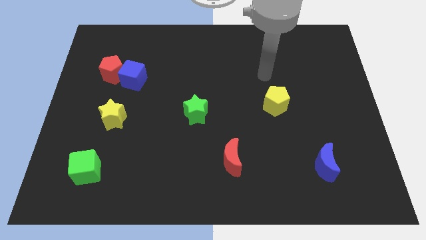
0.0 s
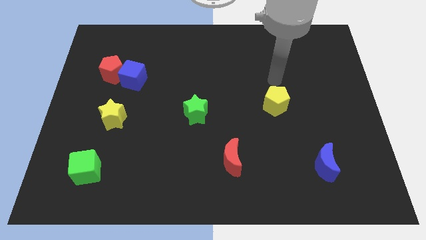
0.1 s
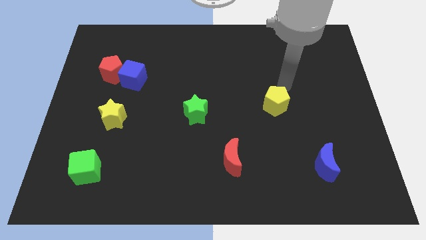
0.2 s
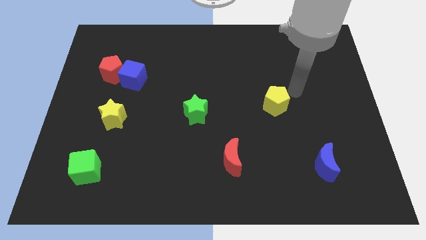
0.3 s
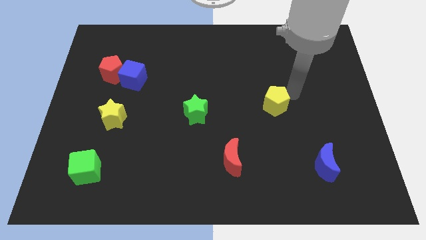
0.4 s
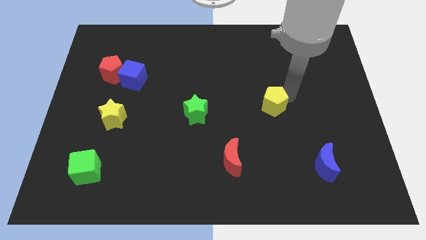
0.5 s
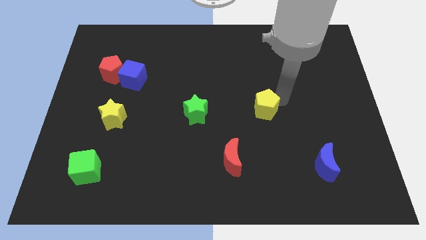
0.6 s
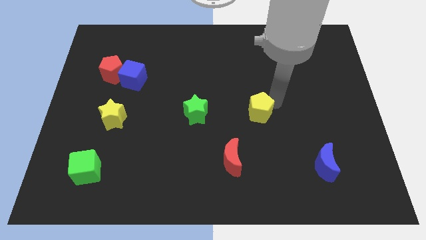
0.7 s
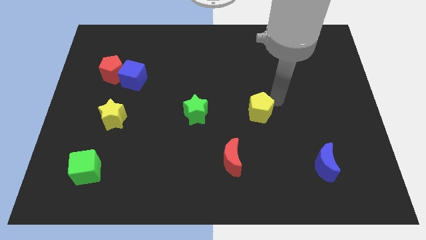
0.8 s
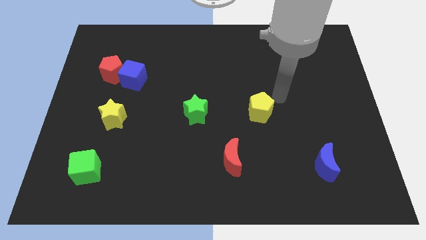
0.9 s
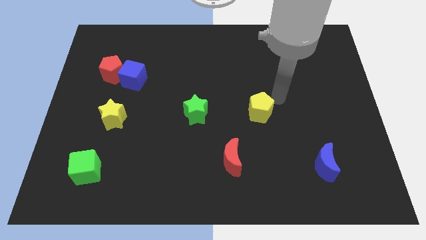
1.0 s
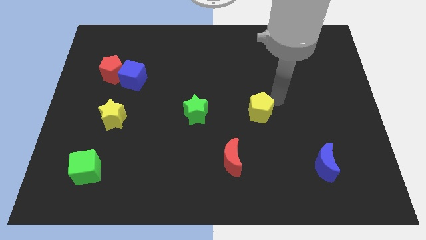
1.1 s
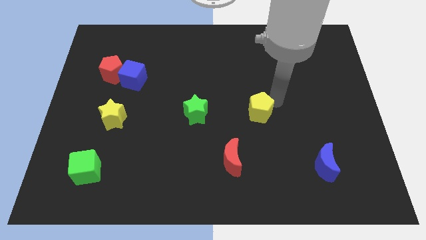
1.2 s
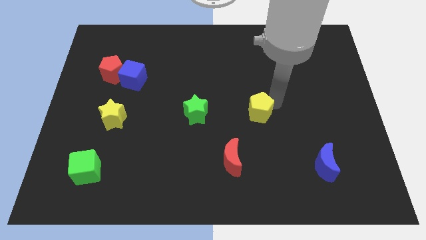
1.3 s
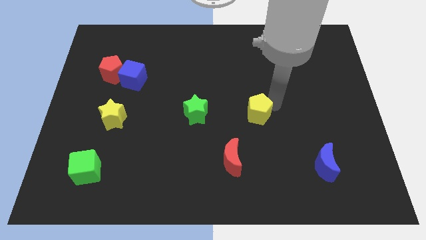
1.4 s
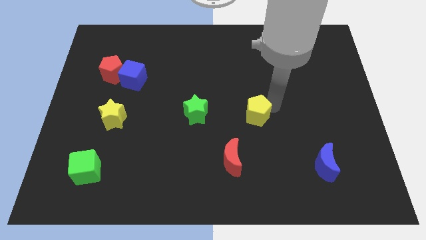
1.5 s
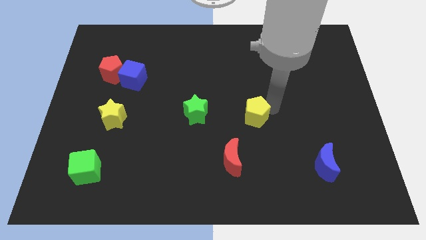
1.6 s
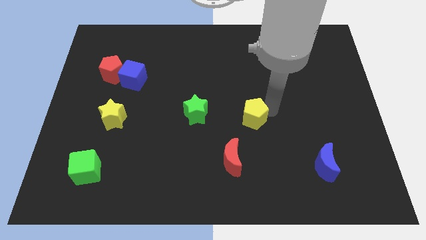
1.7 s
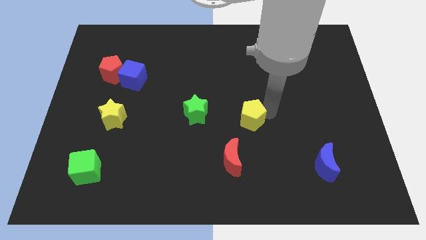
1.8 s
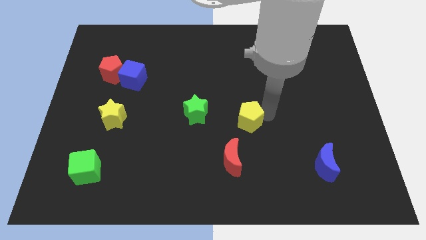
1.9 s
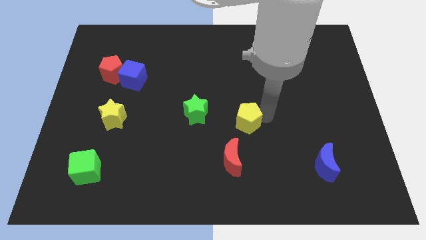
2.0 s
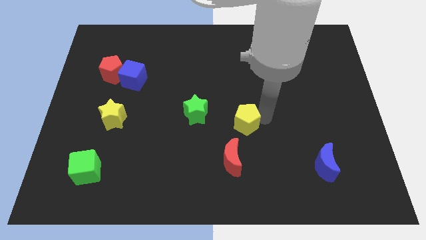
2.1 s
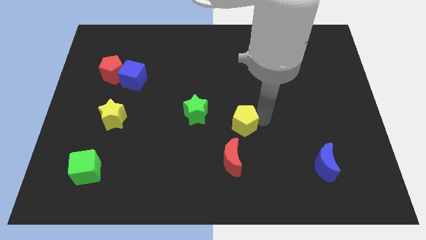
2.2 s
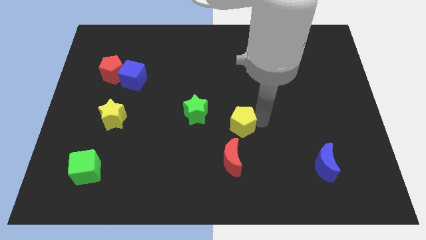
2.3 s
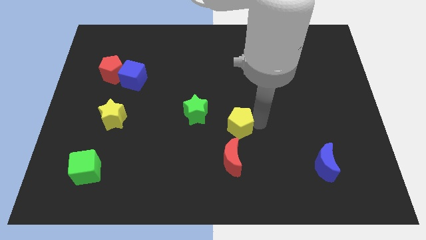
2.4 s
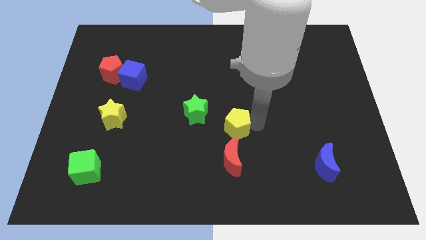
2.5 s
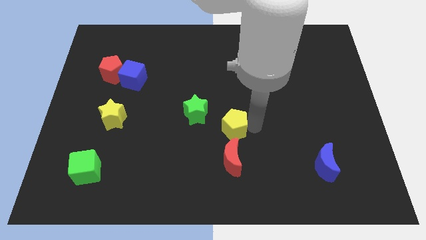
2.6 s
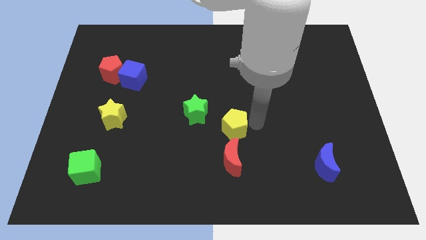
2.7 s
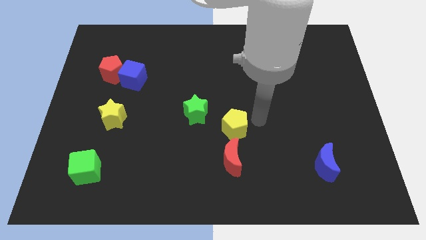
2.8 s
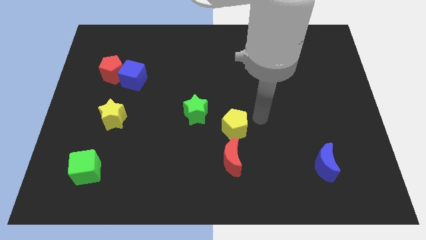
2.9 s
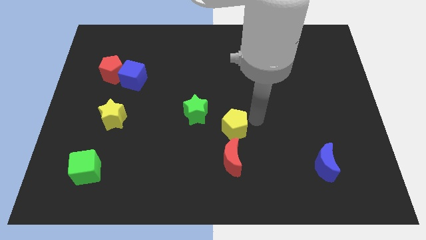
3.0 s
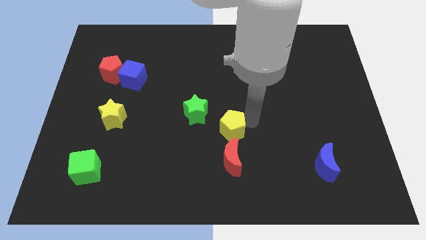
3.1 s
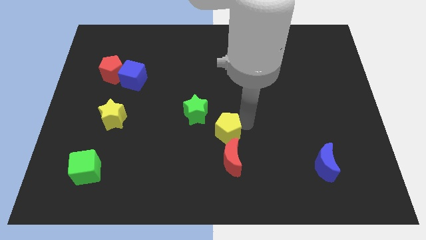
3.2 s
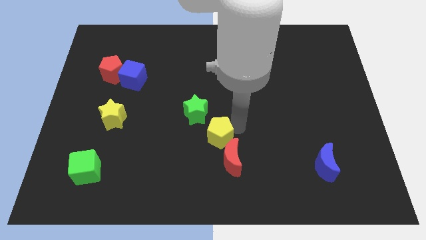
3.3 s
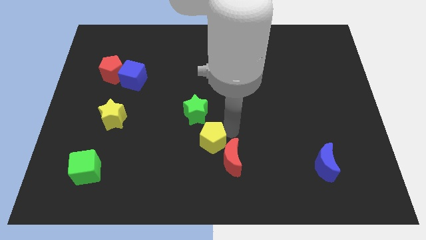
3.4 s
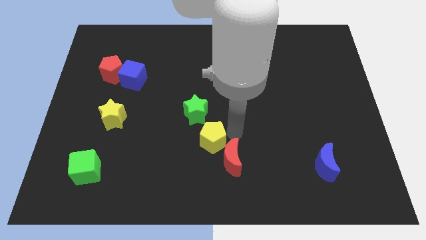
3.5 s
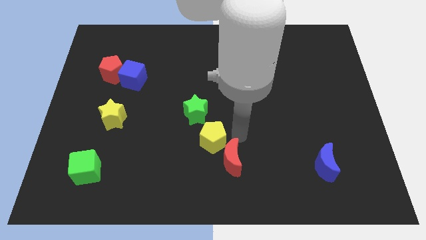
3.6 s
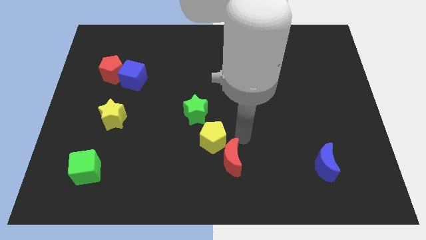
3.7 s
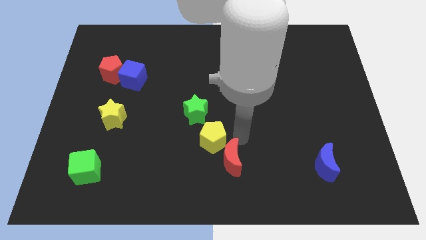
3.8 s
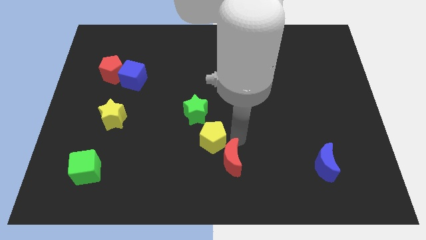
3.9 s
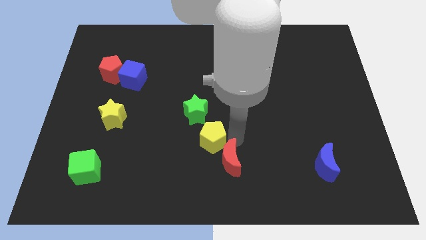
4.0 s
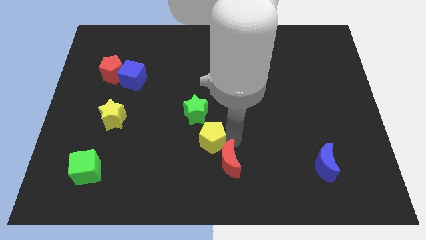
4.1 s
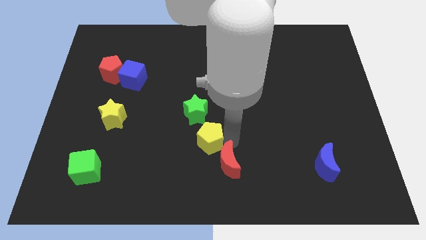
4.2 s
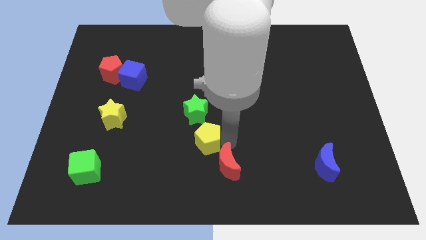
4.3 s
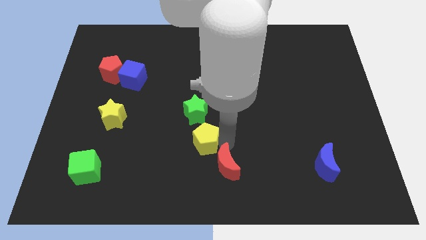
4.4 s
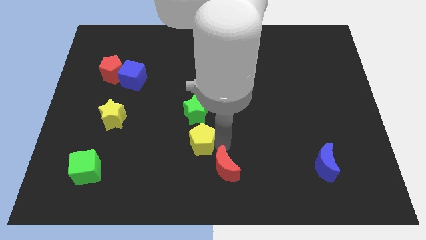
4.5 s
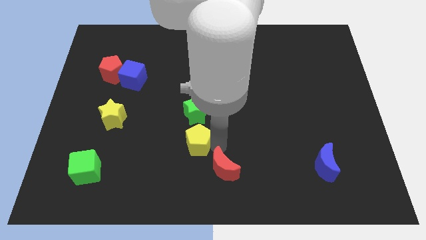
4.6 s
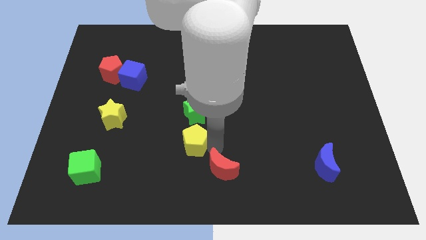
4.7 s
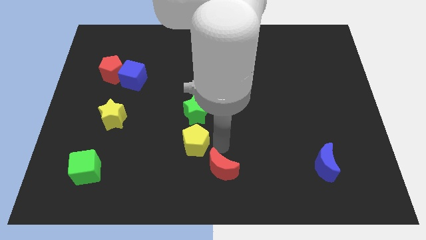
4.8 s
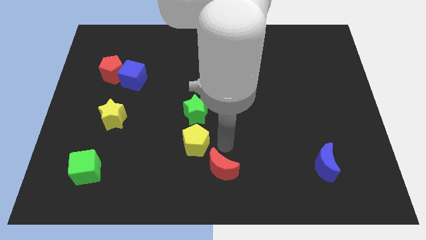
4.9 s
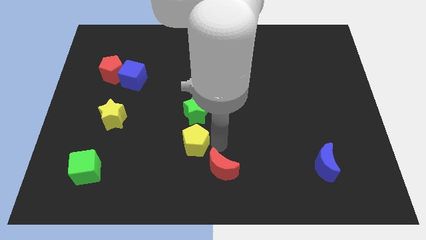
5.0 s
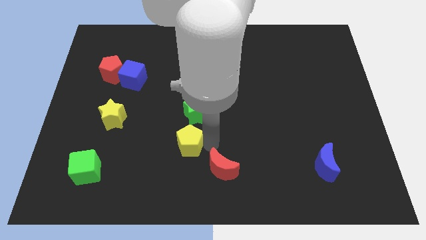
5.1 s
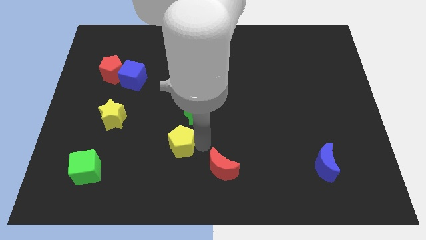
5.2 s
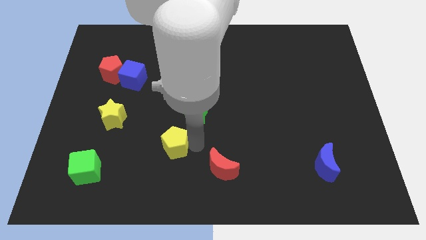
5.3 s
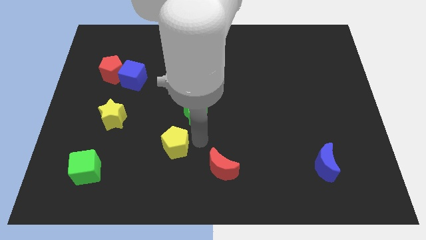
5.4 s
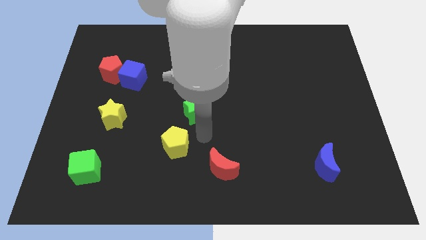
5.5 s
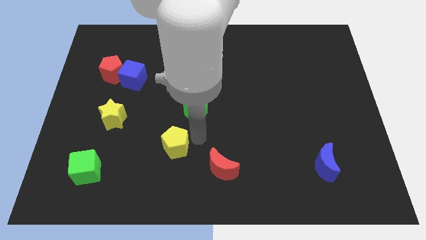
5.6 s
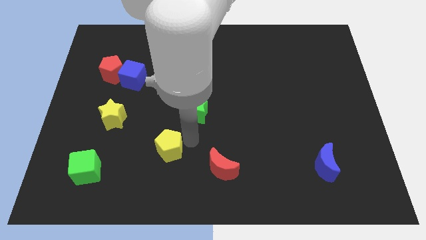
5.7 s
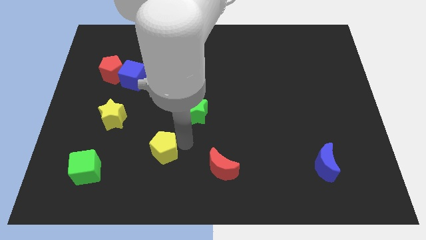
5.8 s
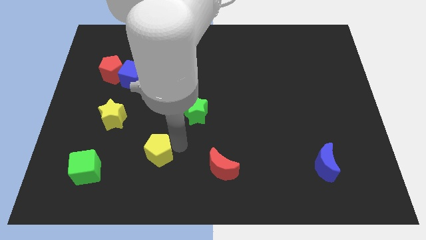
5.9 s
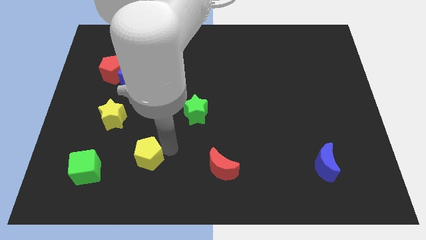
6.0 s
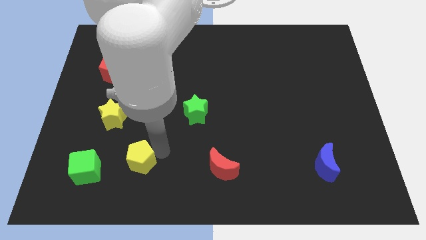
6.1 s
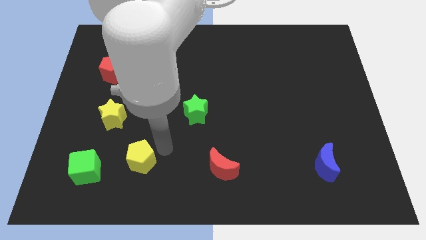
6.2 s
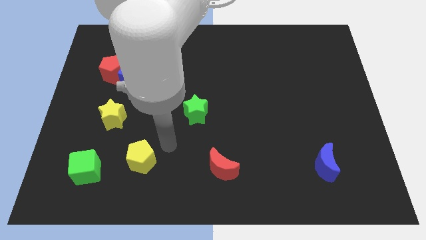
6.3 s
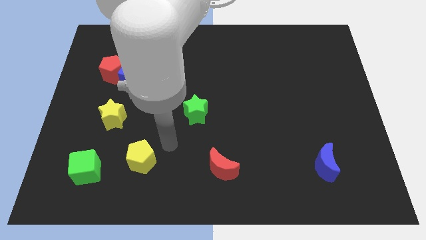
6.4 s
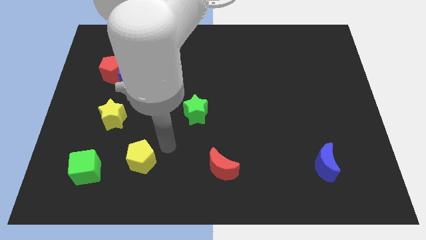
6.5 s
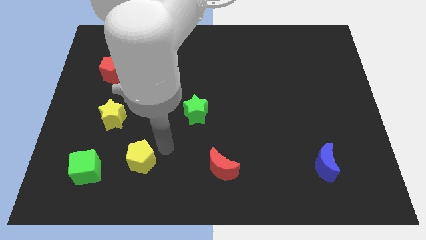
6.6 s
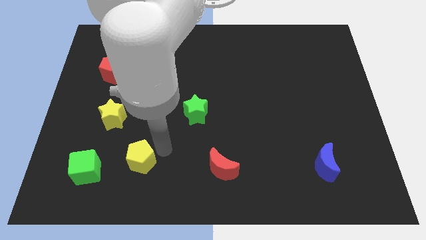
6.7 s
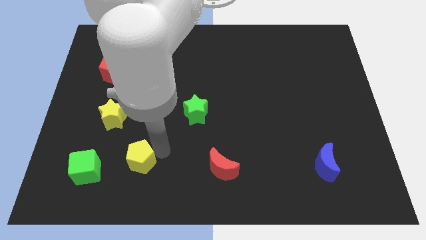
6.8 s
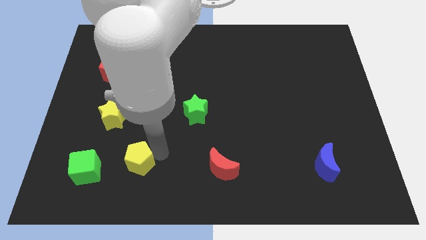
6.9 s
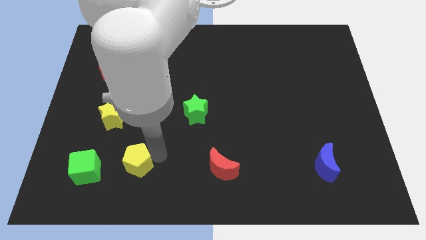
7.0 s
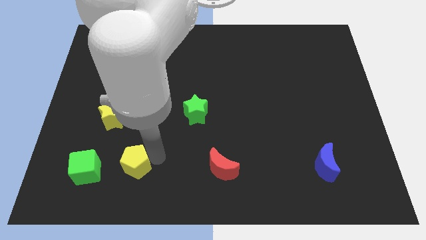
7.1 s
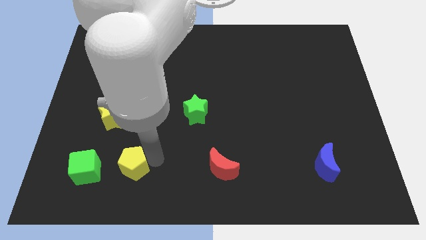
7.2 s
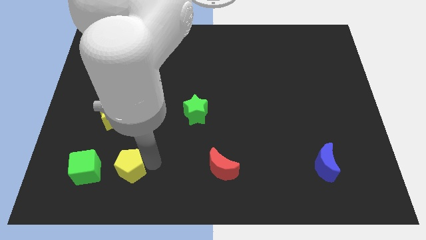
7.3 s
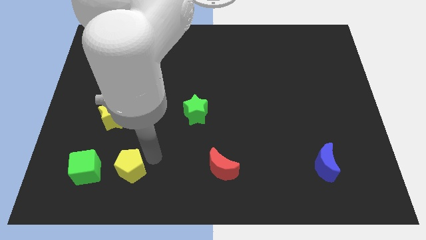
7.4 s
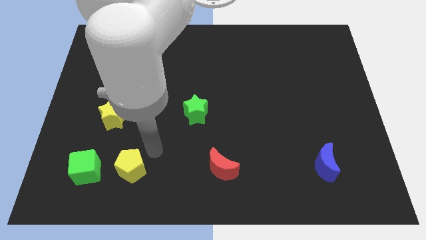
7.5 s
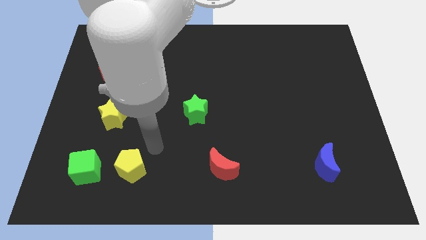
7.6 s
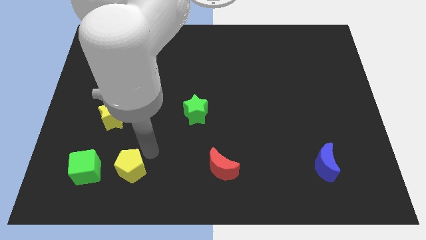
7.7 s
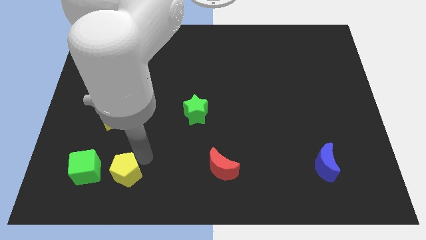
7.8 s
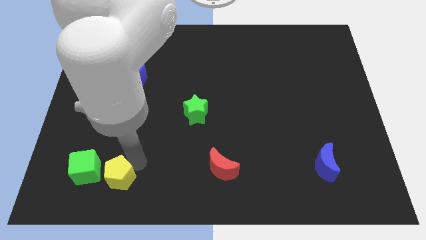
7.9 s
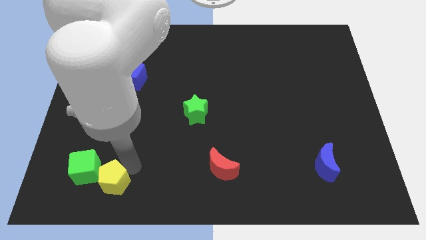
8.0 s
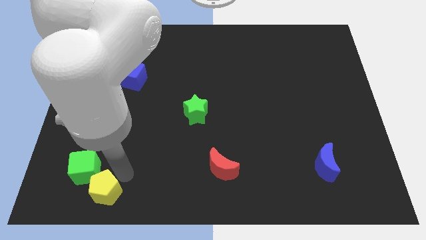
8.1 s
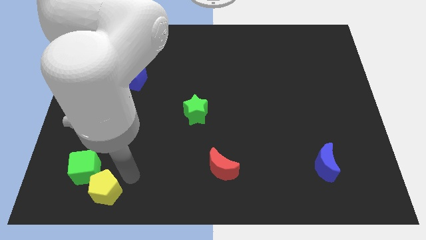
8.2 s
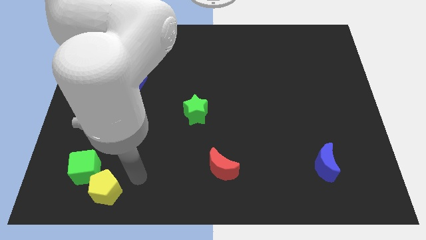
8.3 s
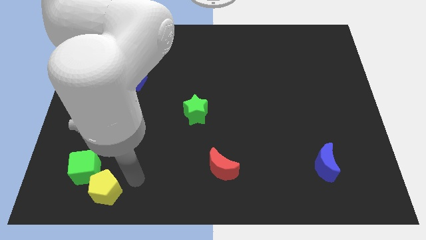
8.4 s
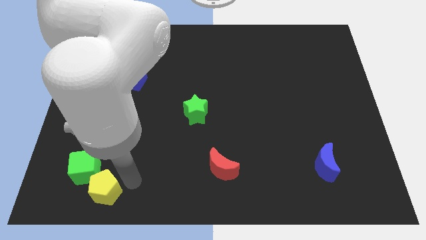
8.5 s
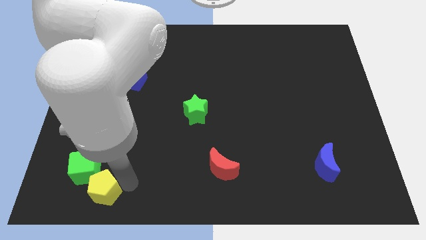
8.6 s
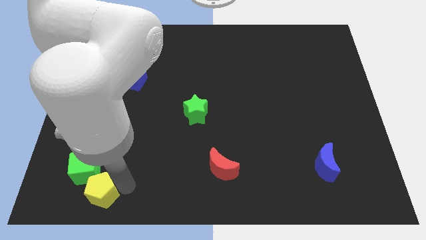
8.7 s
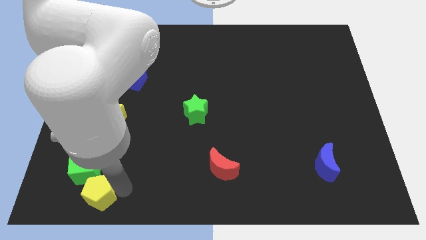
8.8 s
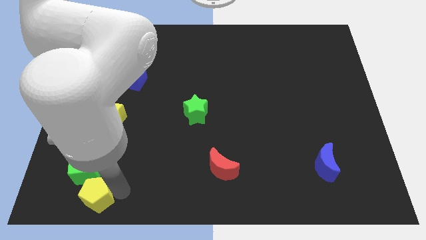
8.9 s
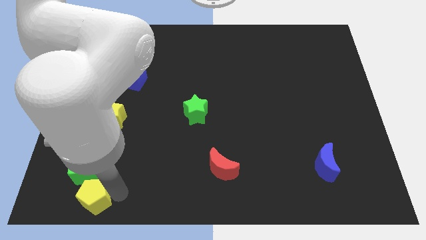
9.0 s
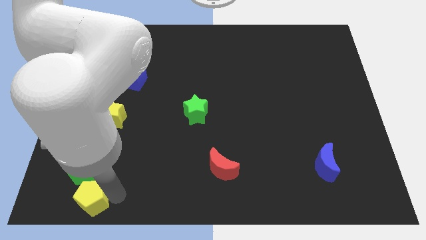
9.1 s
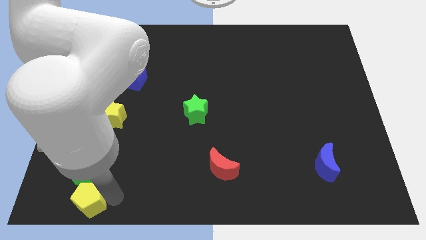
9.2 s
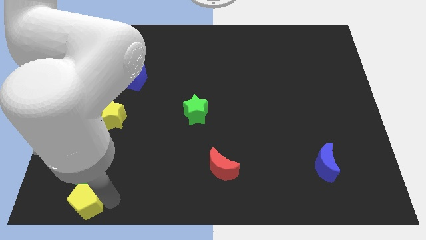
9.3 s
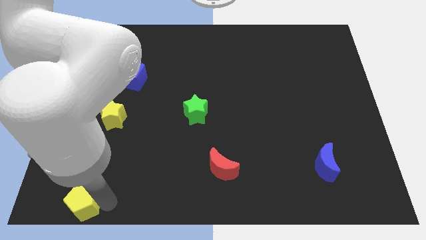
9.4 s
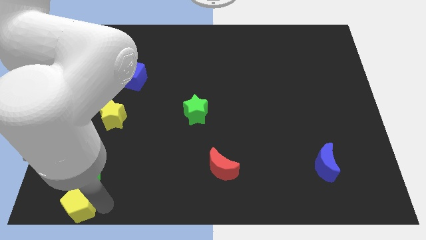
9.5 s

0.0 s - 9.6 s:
slide the yellow pentagon to the bottom left corner
